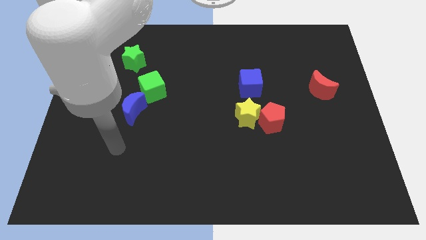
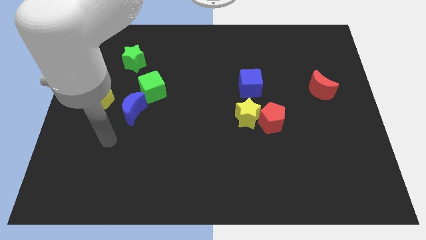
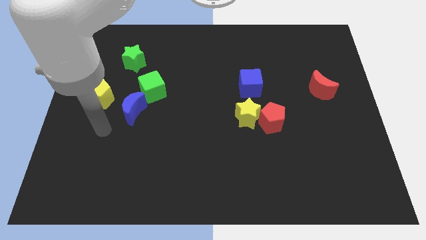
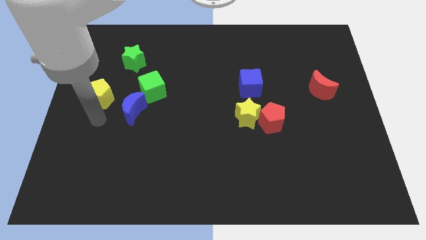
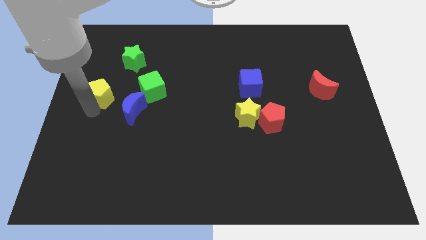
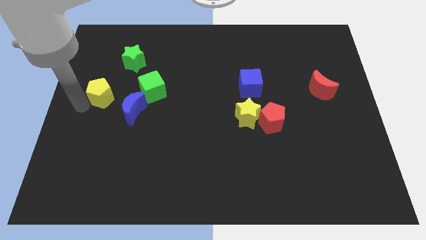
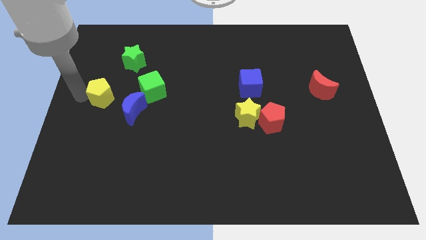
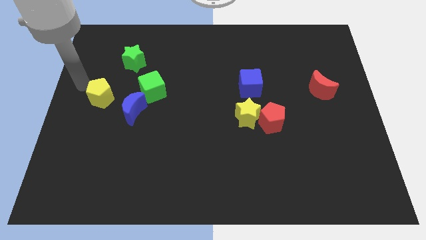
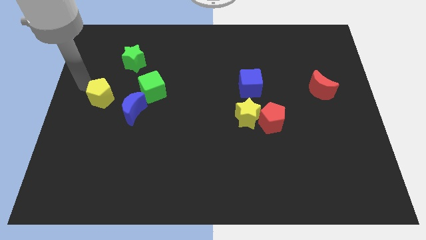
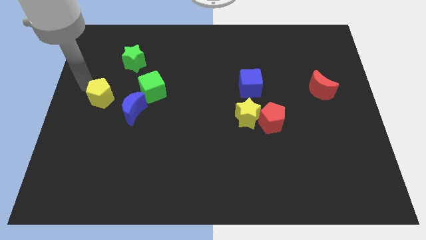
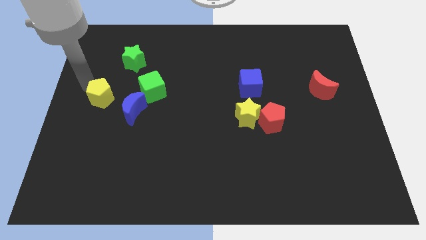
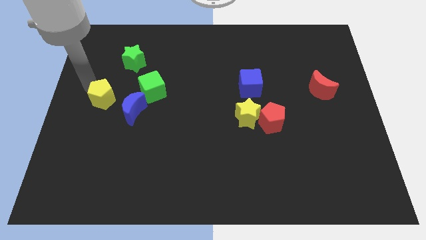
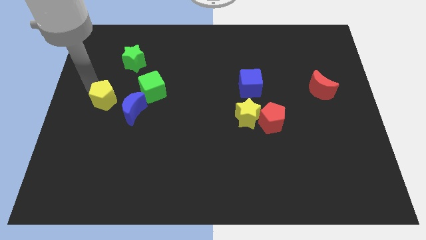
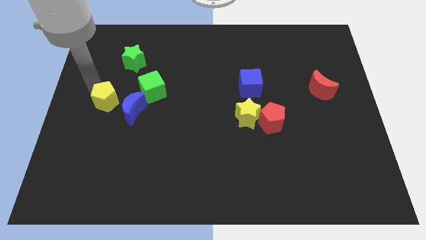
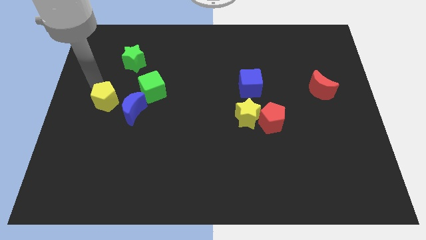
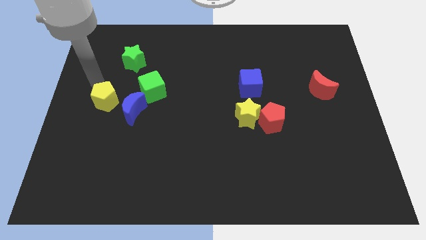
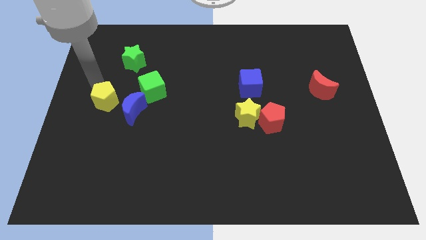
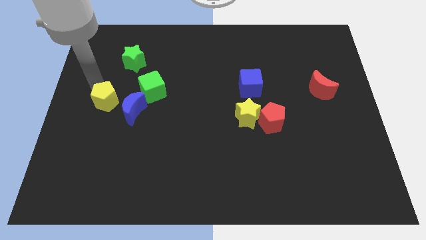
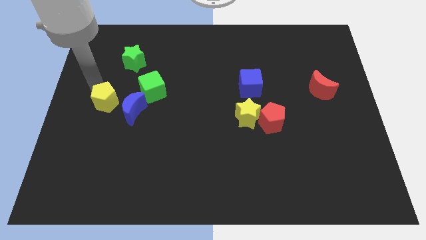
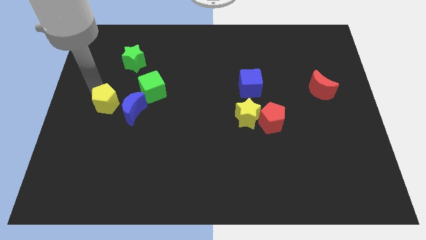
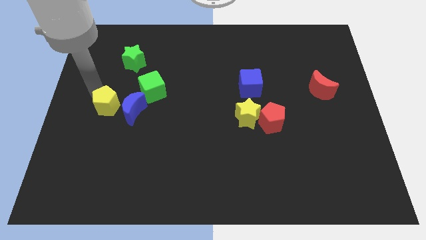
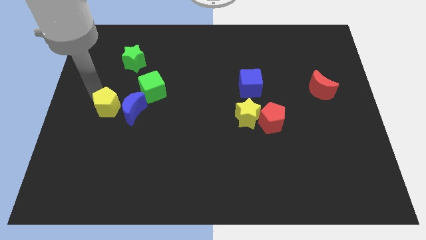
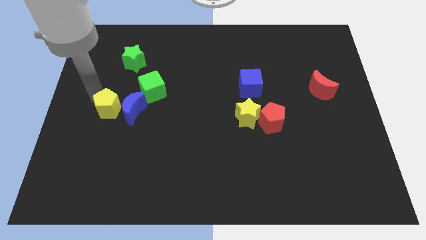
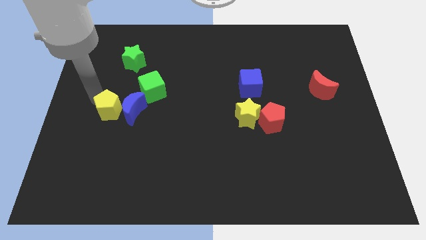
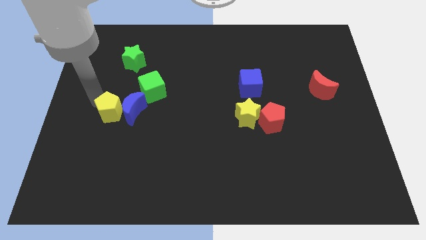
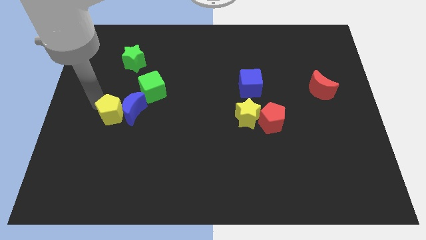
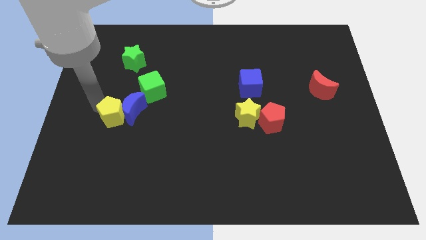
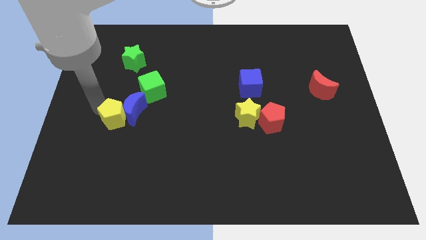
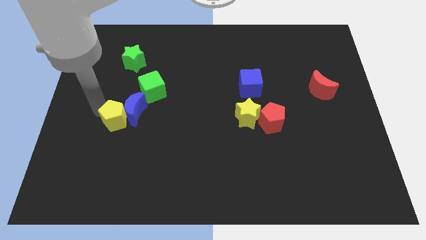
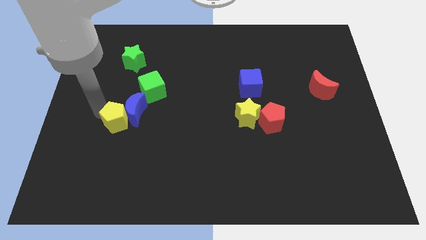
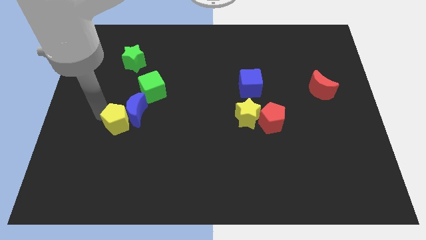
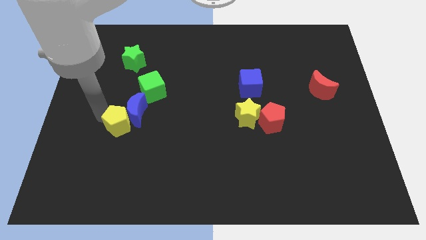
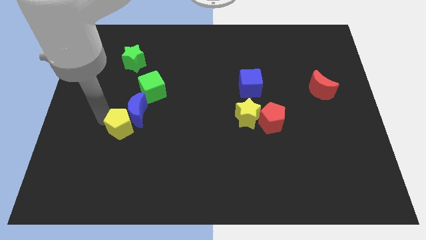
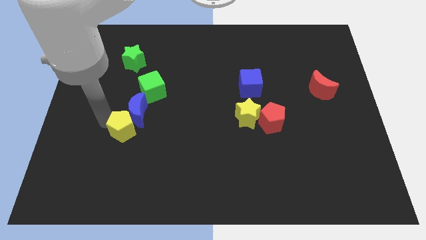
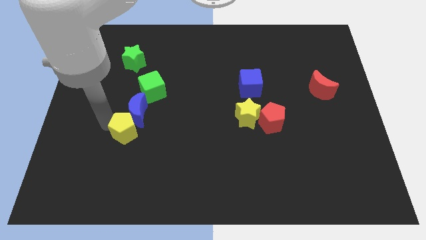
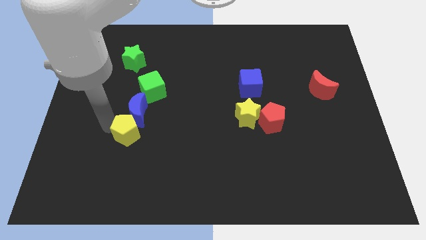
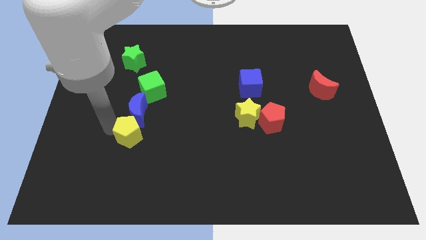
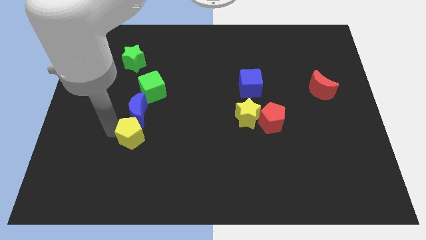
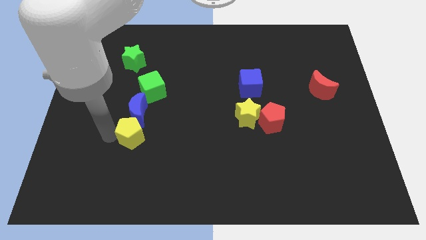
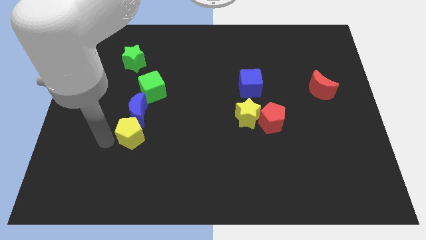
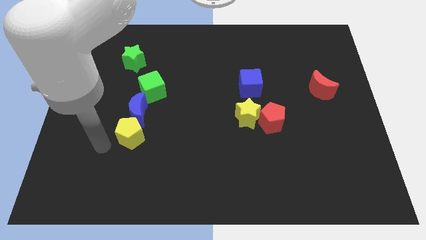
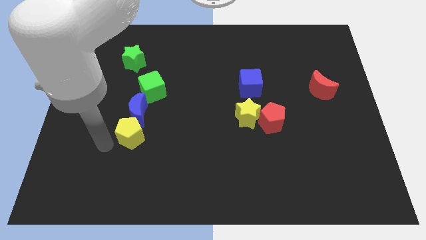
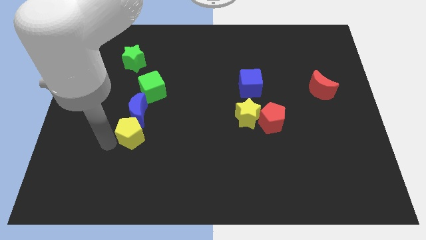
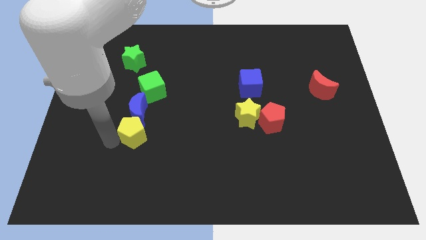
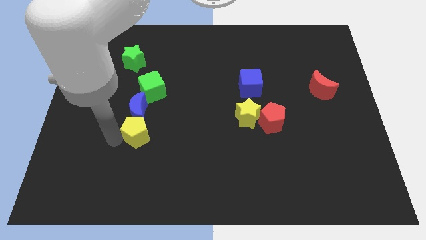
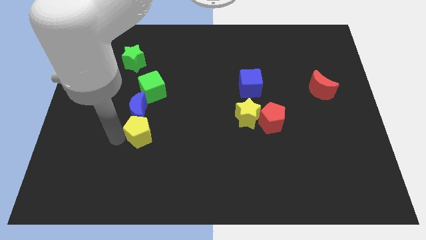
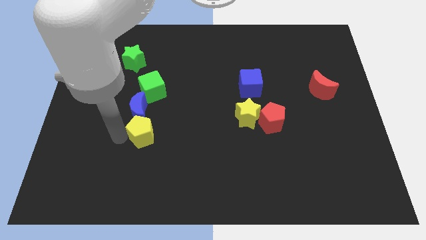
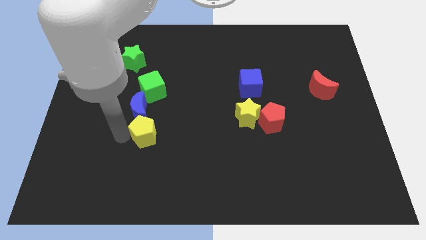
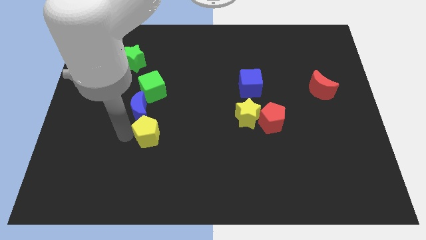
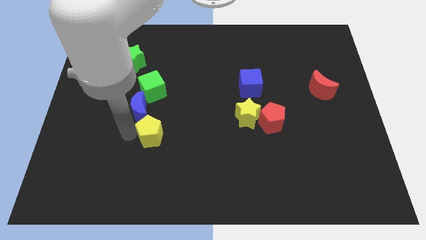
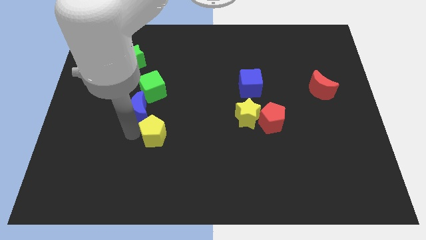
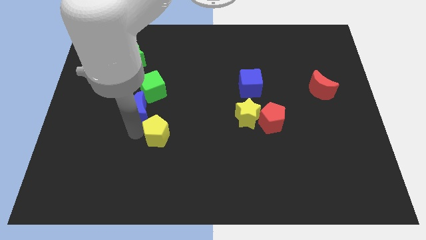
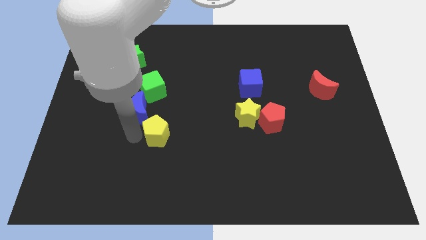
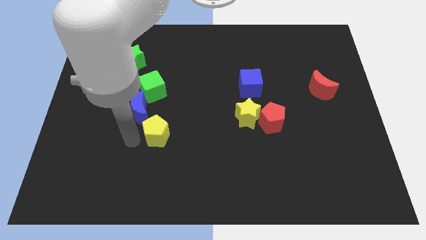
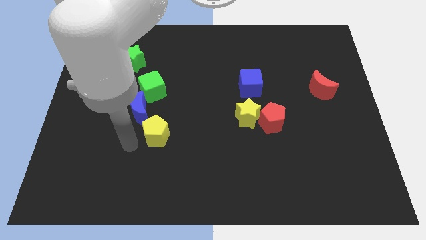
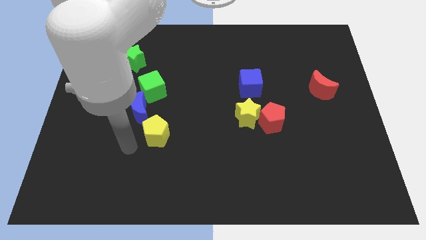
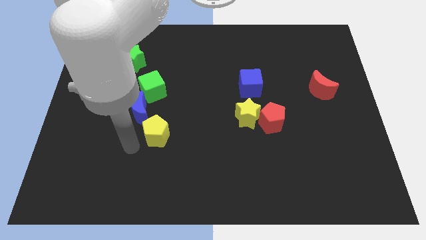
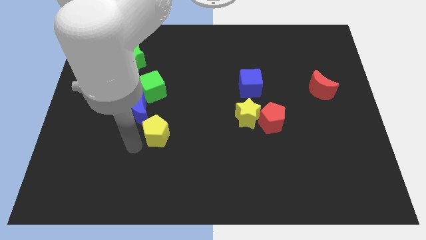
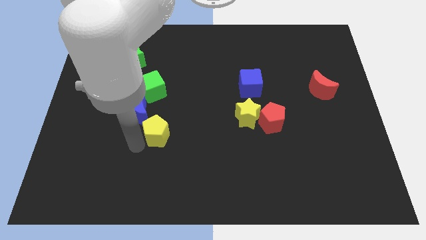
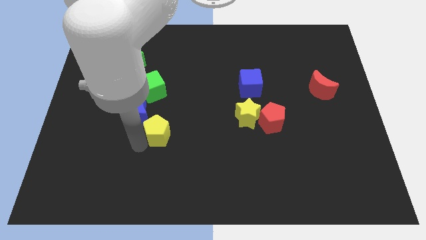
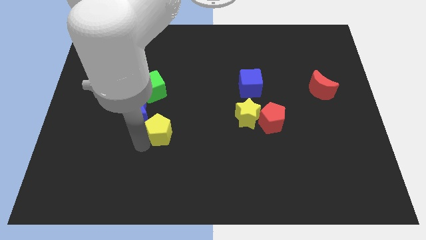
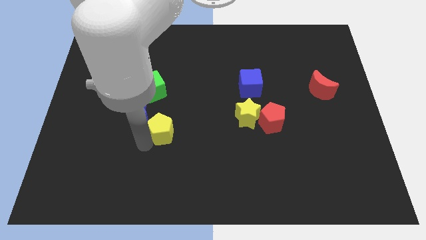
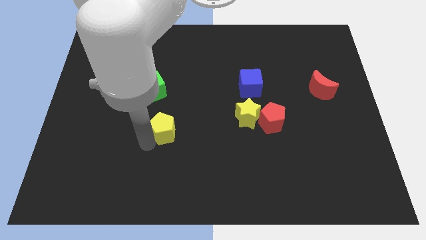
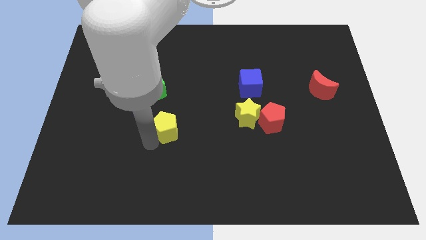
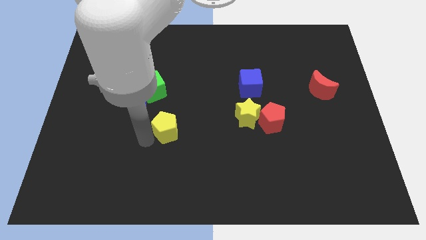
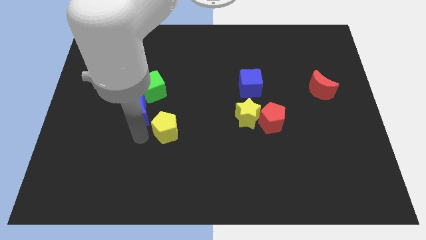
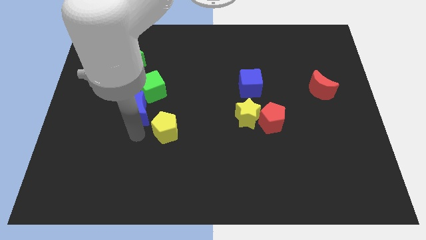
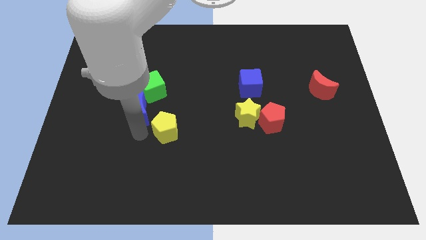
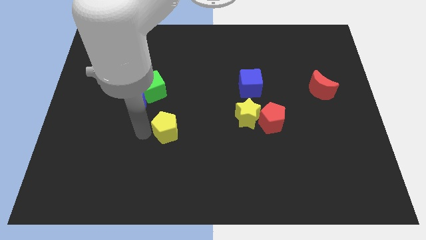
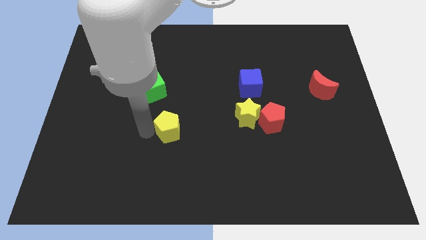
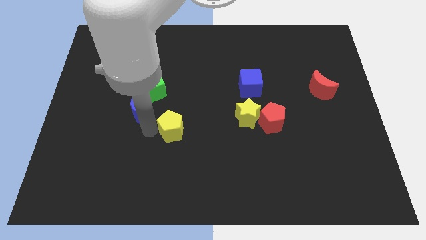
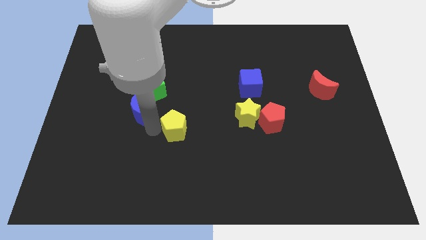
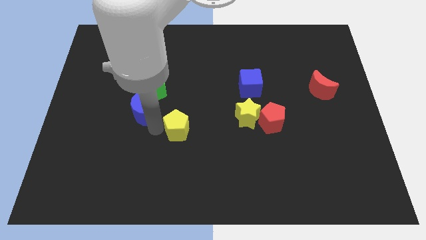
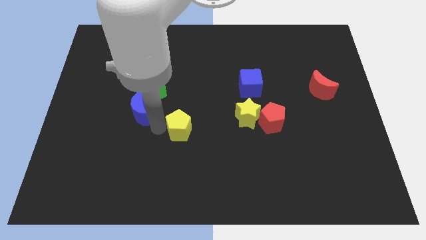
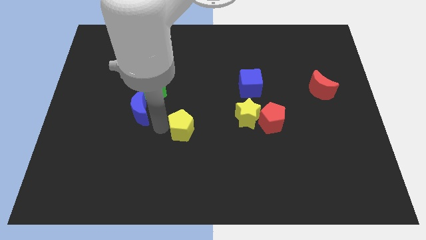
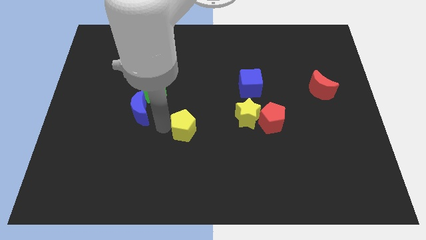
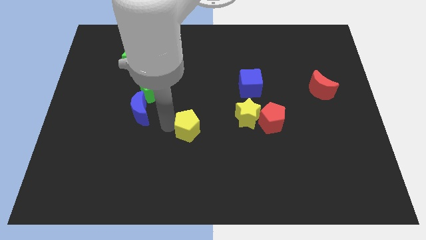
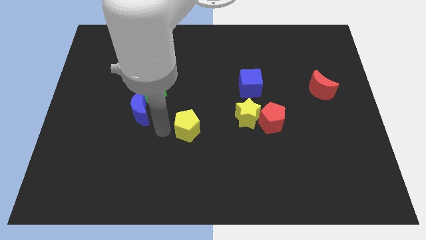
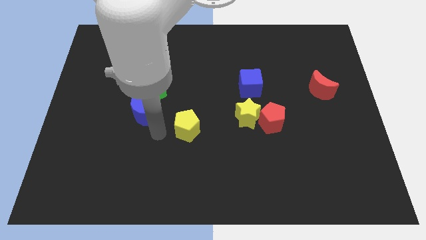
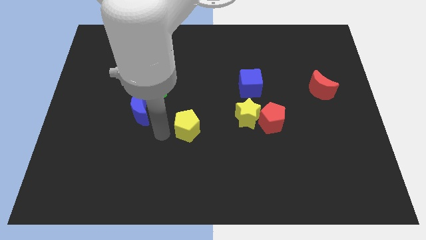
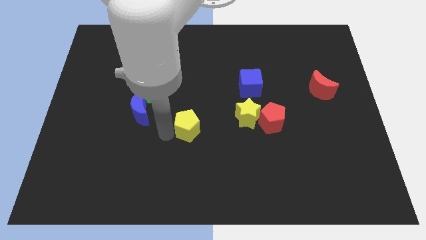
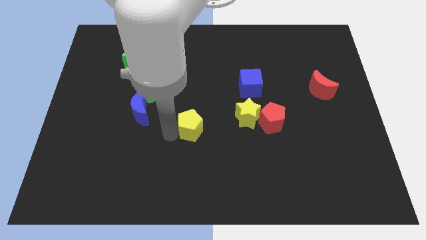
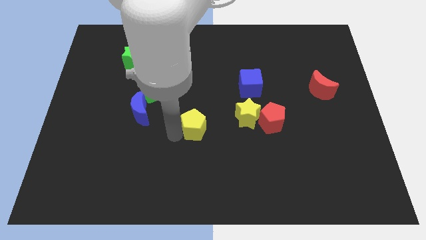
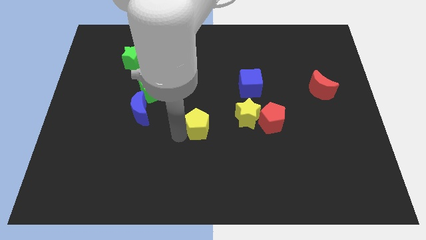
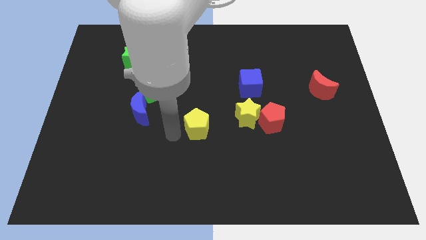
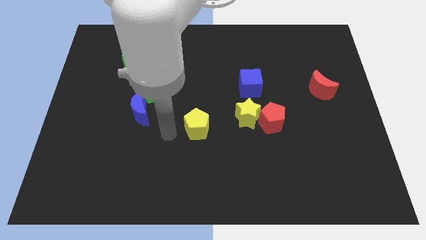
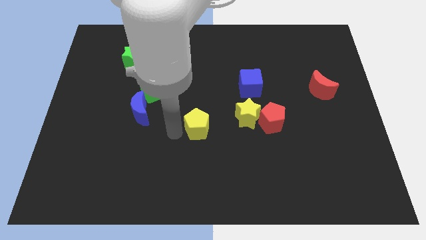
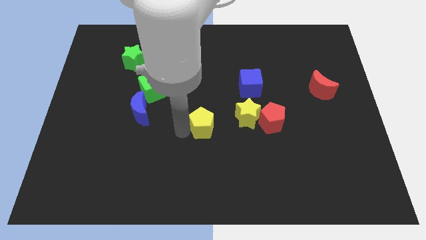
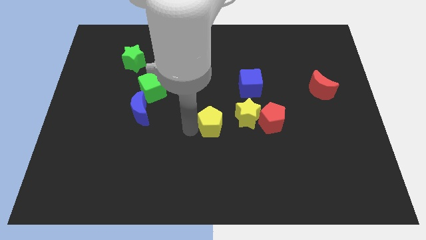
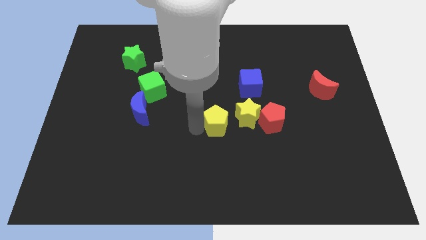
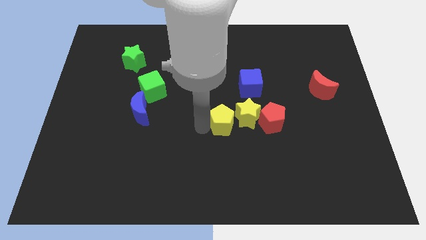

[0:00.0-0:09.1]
put the yellow pentagon to the yellow star
